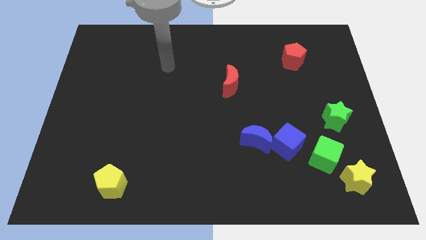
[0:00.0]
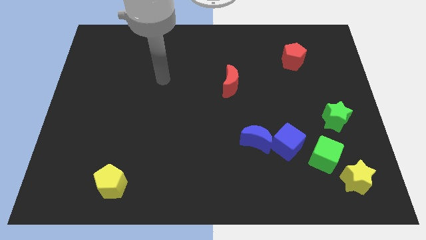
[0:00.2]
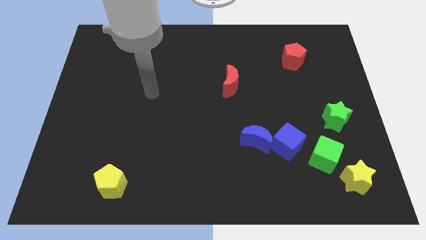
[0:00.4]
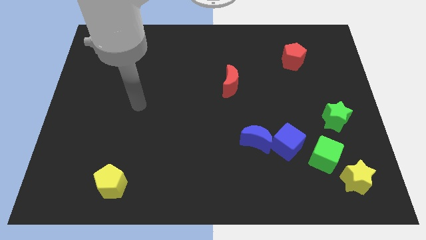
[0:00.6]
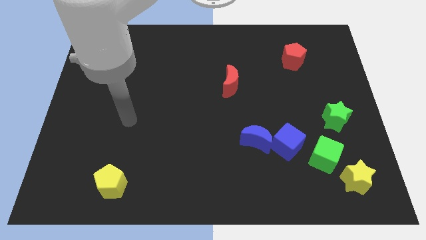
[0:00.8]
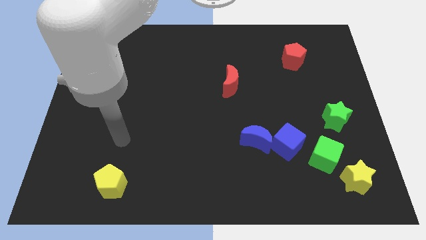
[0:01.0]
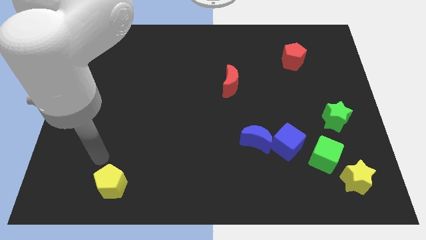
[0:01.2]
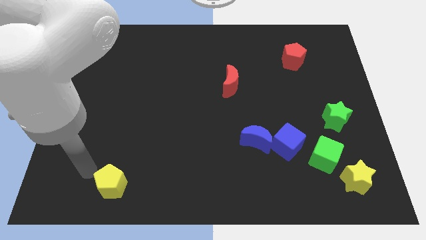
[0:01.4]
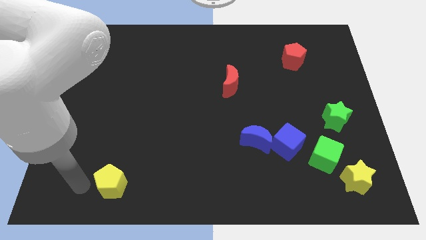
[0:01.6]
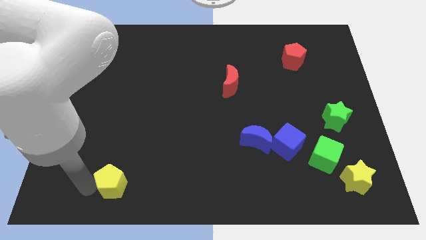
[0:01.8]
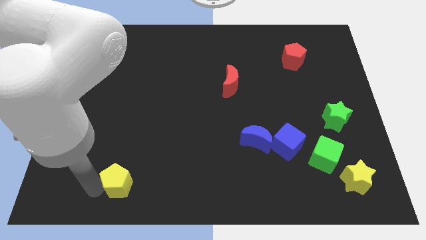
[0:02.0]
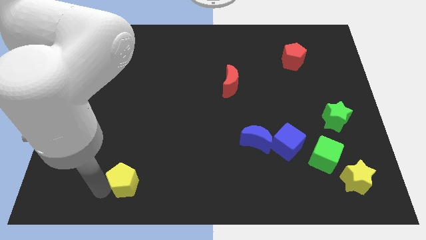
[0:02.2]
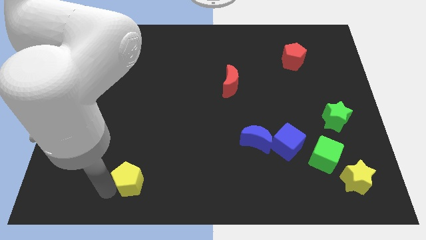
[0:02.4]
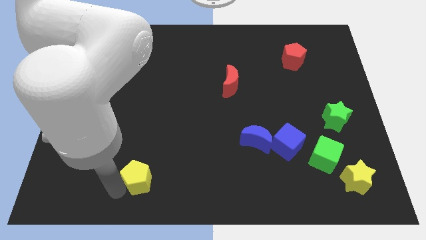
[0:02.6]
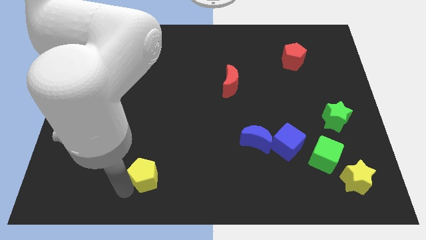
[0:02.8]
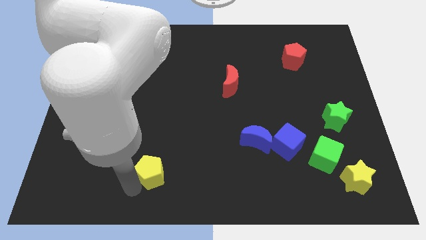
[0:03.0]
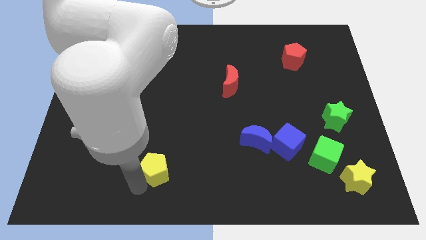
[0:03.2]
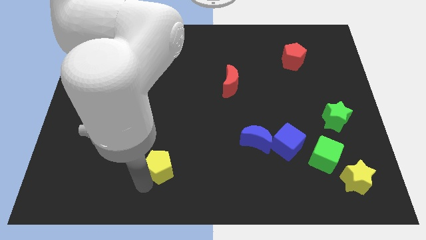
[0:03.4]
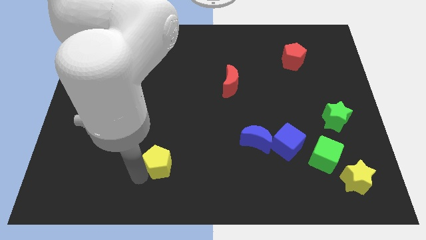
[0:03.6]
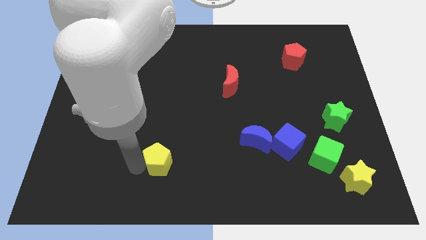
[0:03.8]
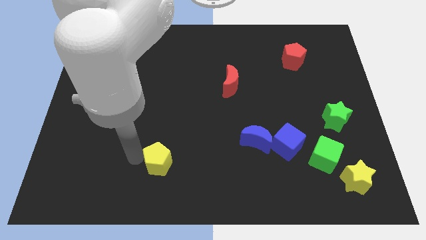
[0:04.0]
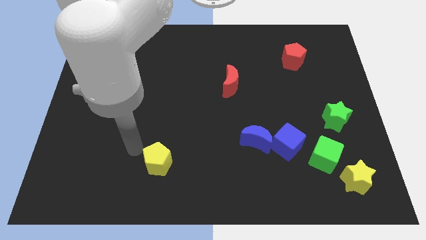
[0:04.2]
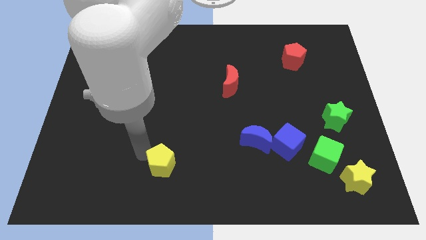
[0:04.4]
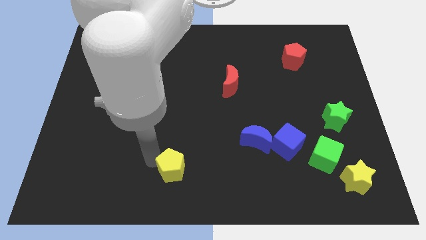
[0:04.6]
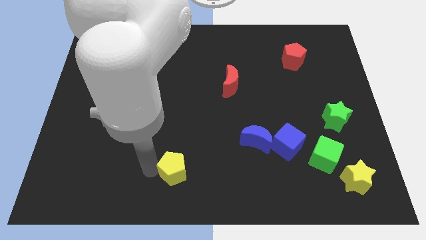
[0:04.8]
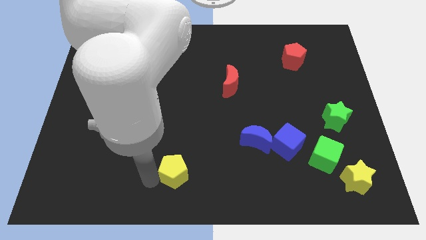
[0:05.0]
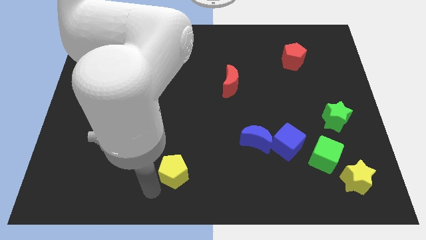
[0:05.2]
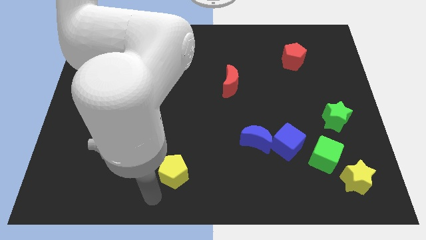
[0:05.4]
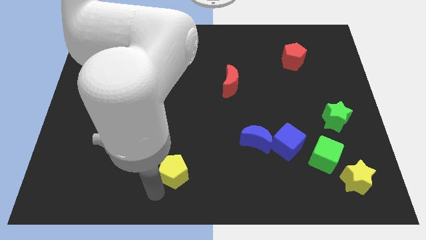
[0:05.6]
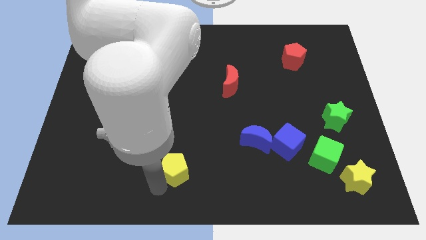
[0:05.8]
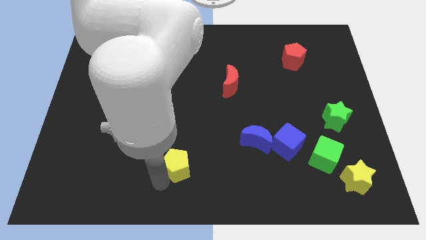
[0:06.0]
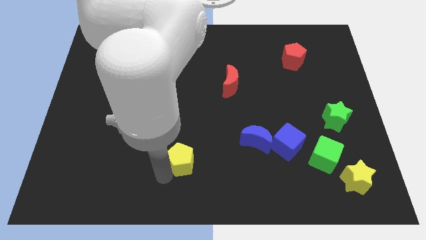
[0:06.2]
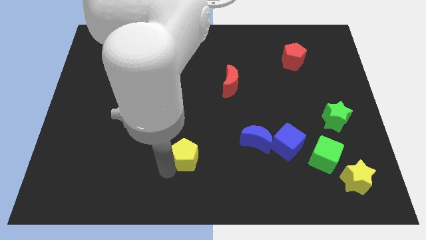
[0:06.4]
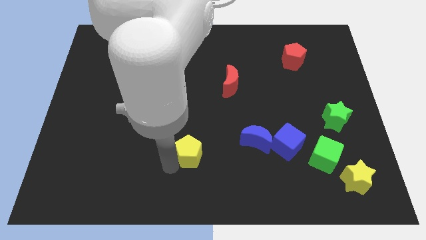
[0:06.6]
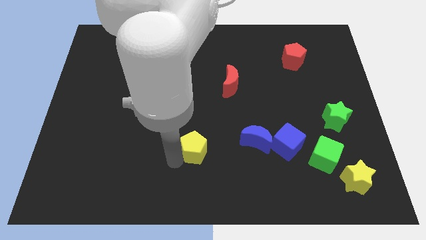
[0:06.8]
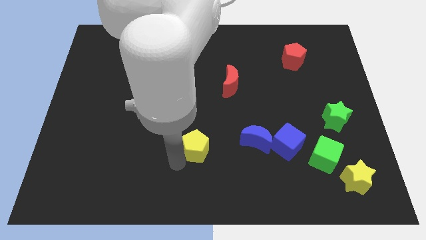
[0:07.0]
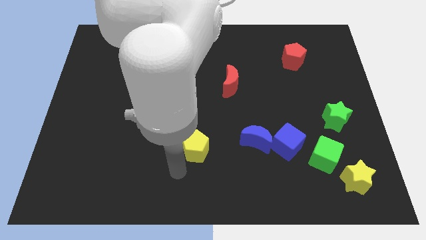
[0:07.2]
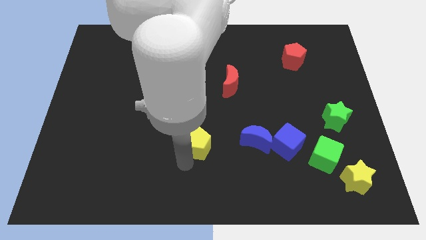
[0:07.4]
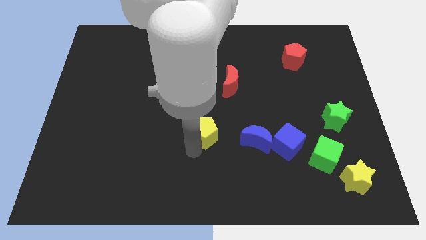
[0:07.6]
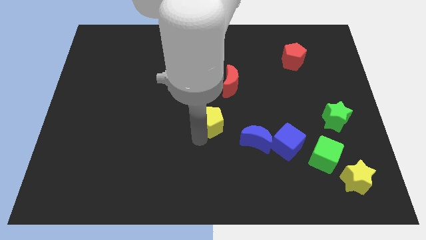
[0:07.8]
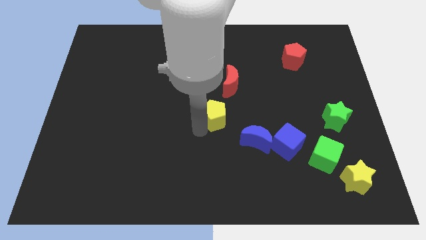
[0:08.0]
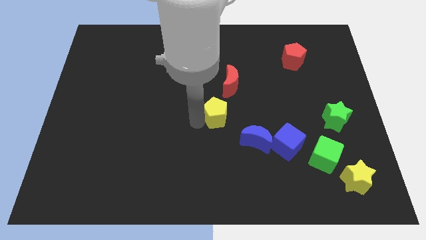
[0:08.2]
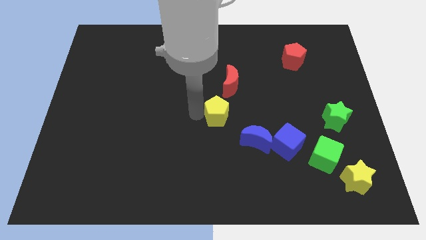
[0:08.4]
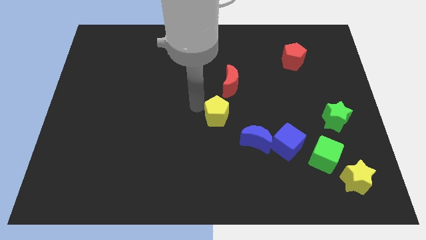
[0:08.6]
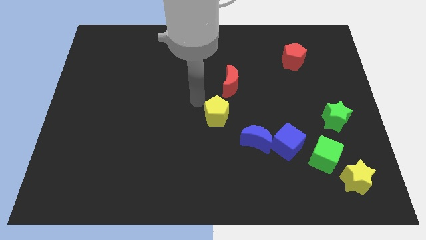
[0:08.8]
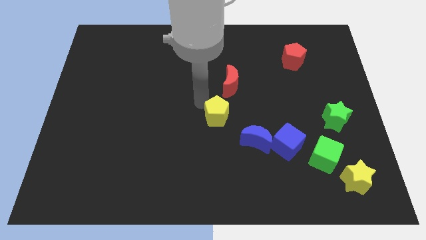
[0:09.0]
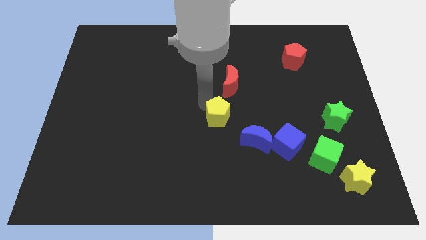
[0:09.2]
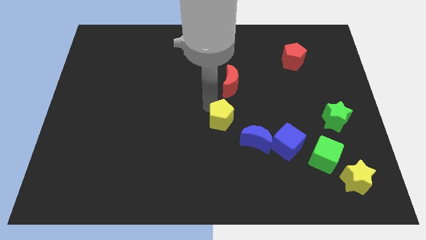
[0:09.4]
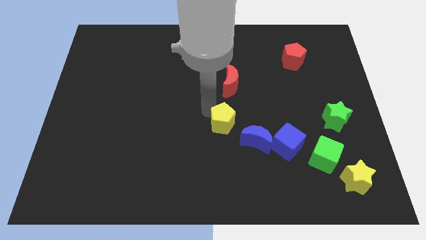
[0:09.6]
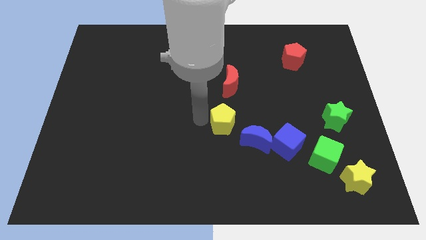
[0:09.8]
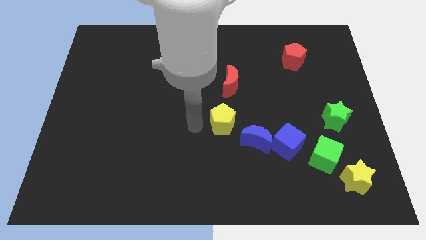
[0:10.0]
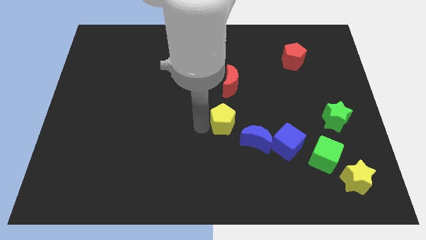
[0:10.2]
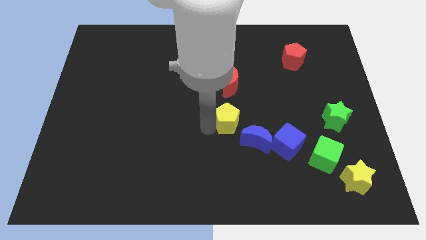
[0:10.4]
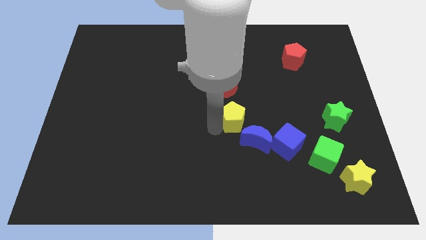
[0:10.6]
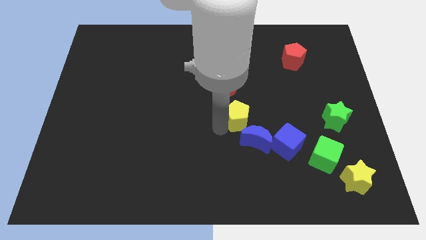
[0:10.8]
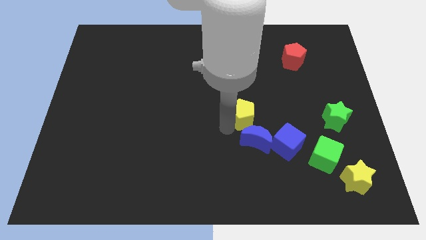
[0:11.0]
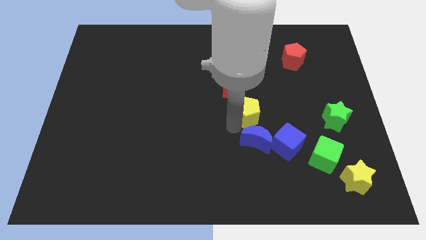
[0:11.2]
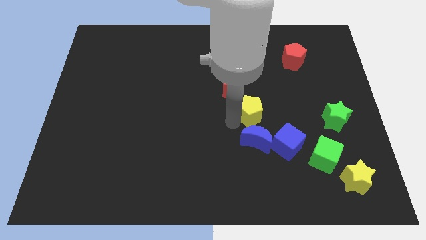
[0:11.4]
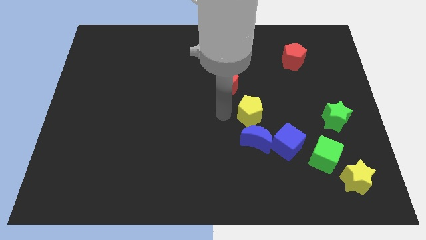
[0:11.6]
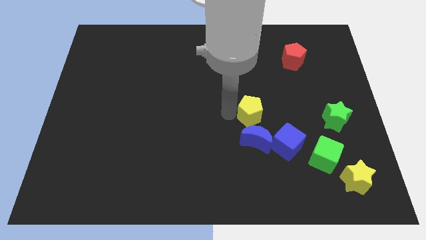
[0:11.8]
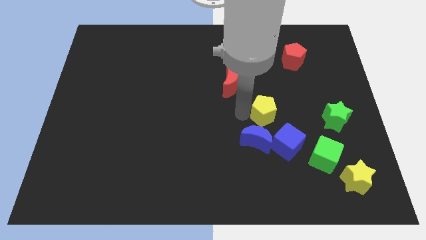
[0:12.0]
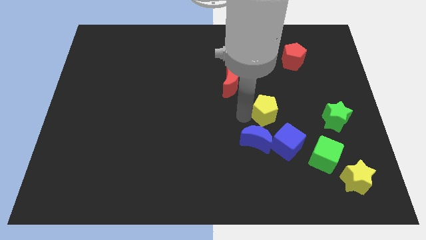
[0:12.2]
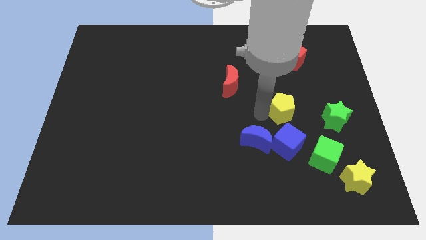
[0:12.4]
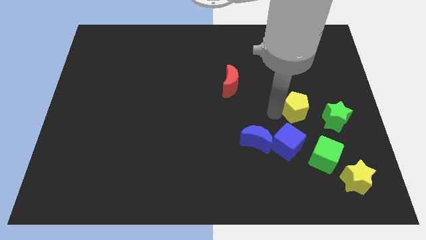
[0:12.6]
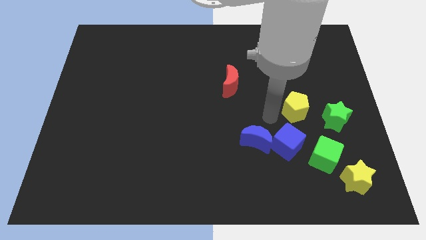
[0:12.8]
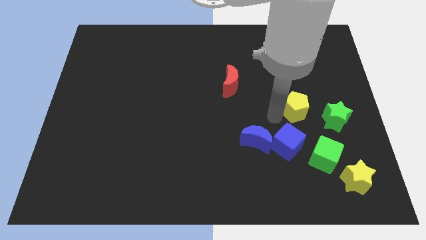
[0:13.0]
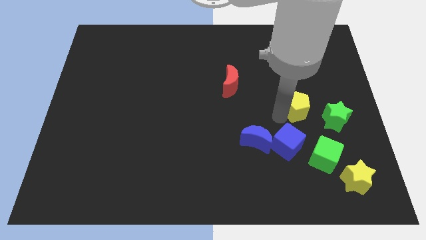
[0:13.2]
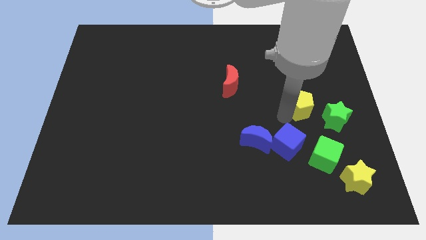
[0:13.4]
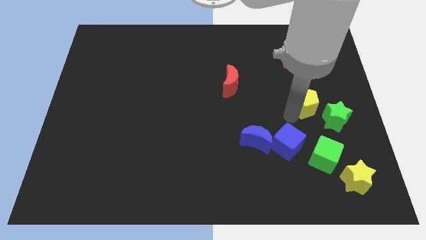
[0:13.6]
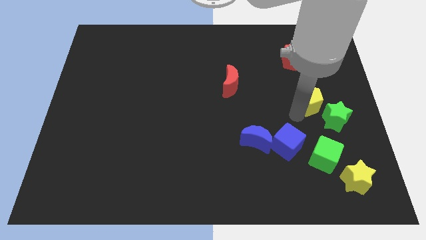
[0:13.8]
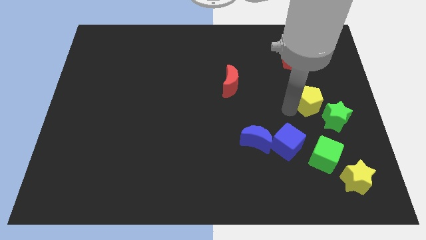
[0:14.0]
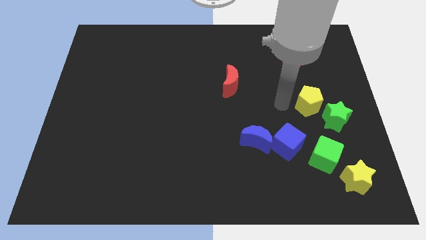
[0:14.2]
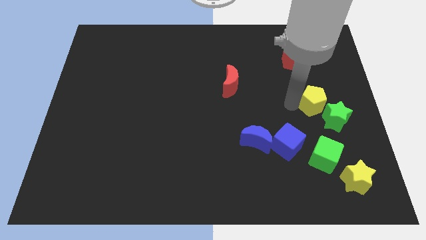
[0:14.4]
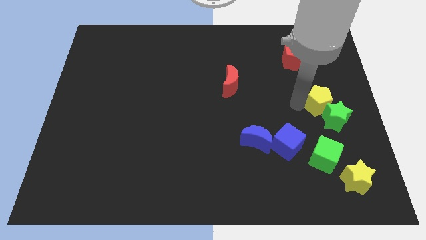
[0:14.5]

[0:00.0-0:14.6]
slide the yellow pentagon to the center right
